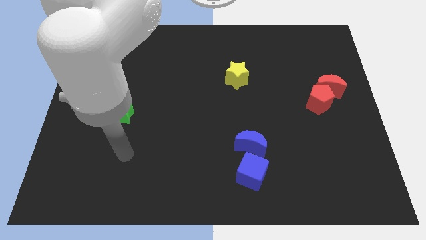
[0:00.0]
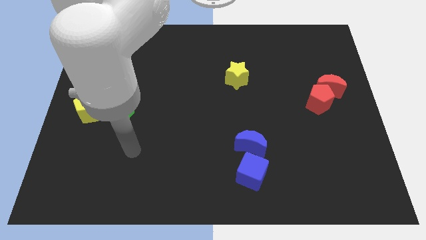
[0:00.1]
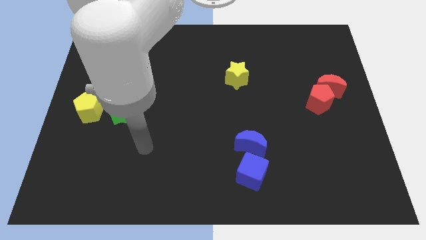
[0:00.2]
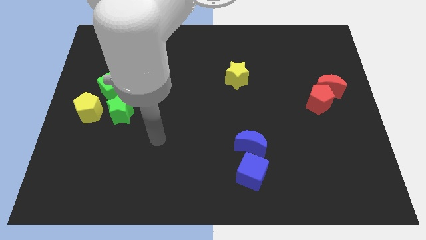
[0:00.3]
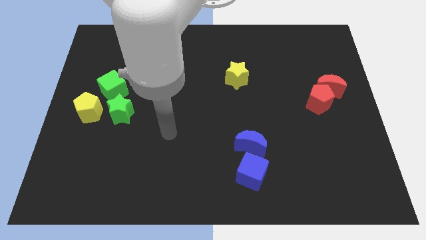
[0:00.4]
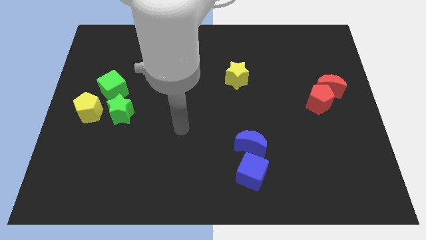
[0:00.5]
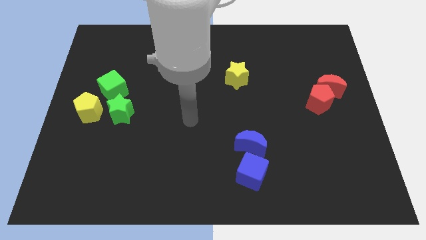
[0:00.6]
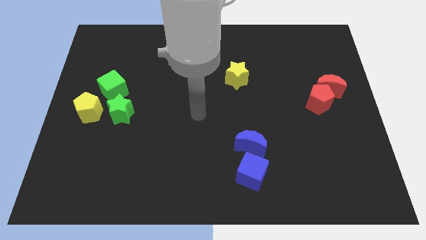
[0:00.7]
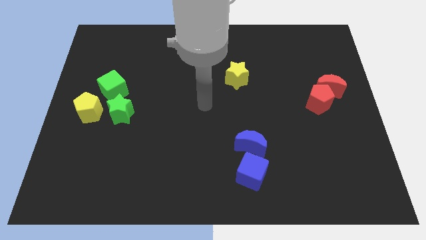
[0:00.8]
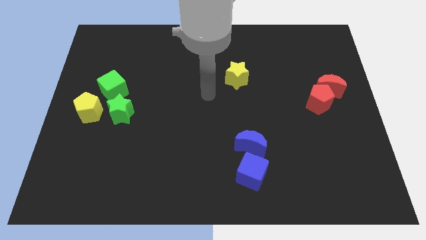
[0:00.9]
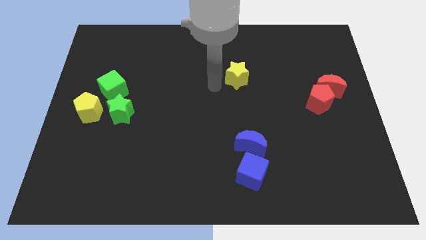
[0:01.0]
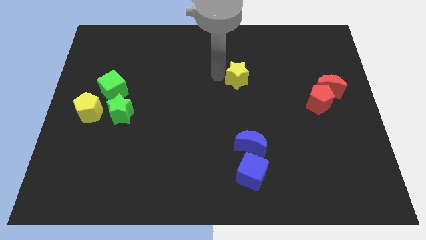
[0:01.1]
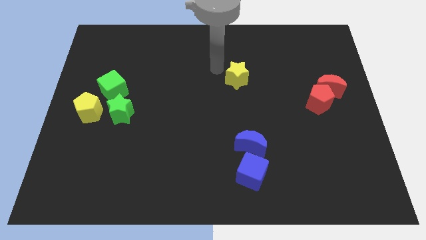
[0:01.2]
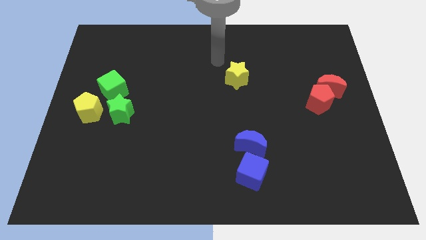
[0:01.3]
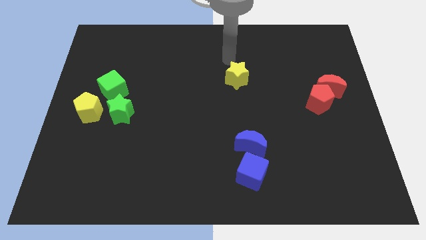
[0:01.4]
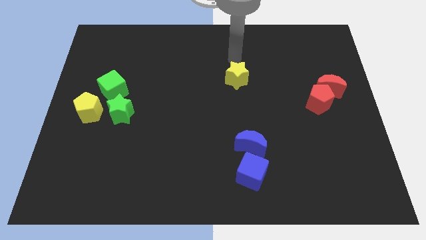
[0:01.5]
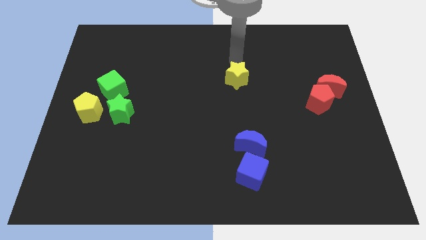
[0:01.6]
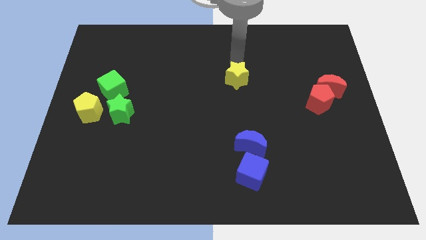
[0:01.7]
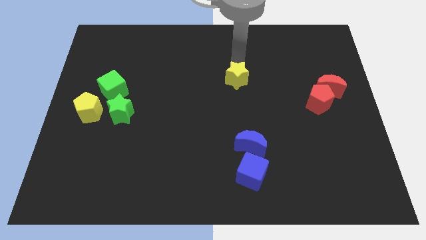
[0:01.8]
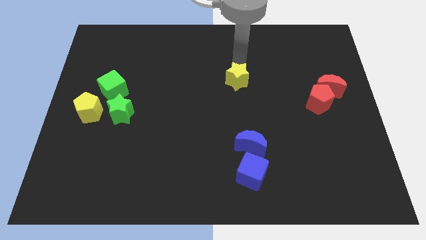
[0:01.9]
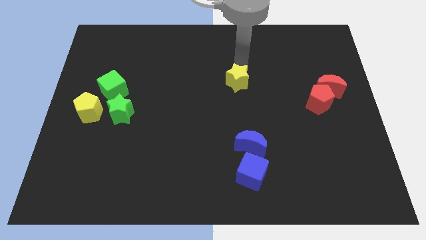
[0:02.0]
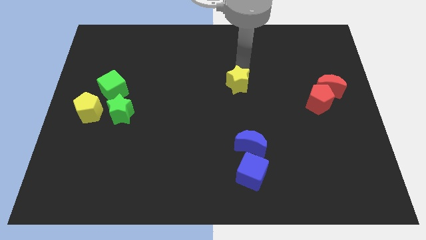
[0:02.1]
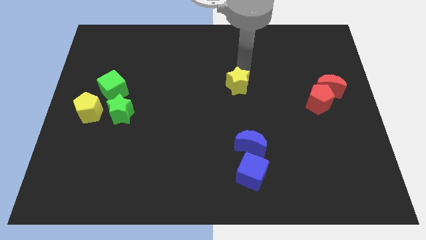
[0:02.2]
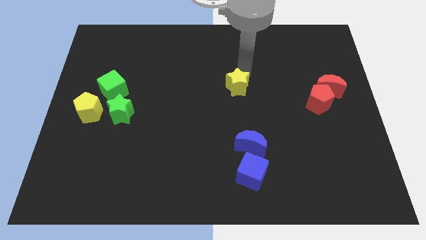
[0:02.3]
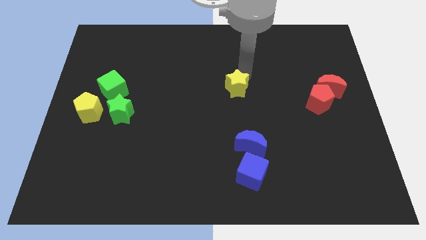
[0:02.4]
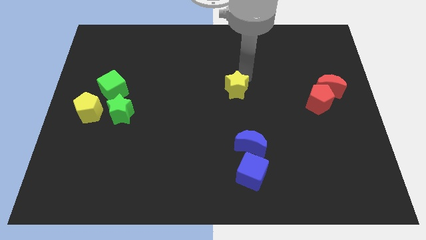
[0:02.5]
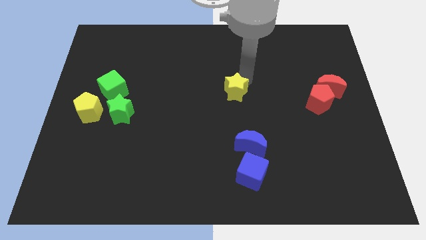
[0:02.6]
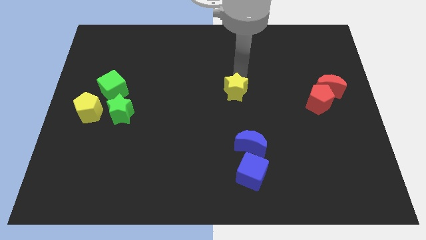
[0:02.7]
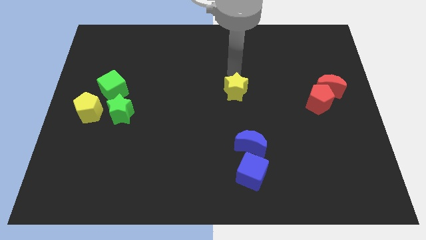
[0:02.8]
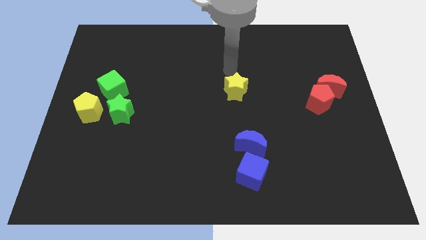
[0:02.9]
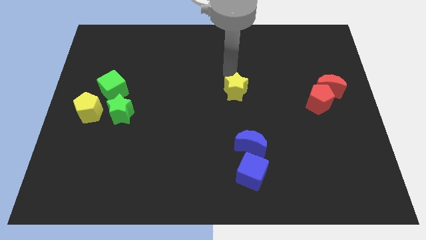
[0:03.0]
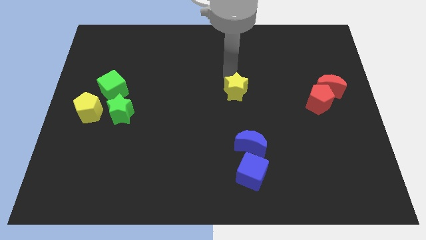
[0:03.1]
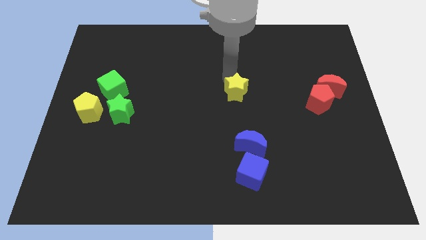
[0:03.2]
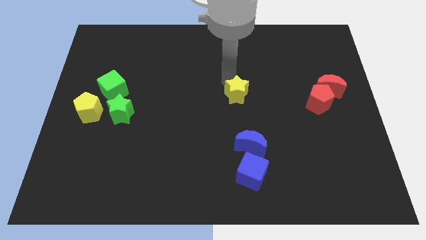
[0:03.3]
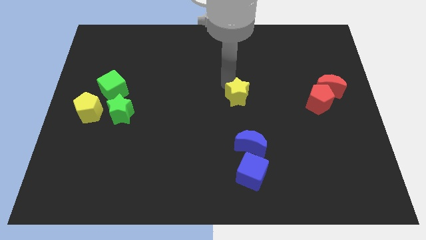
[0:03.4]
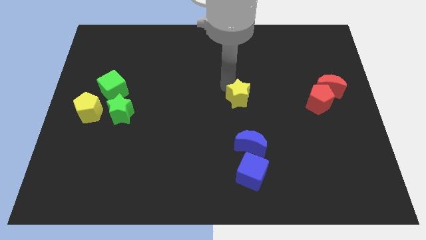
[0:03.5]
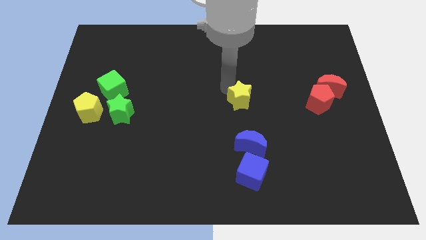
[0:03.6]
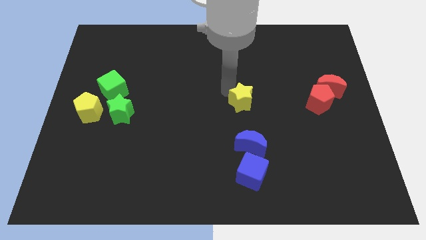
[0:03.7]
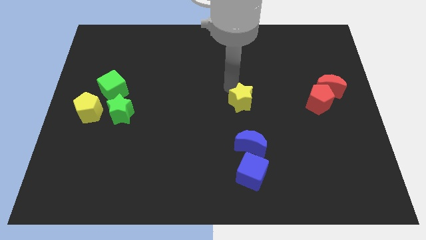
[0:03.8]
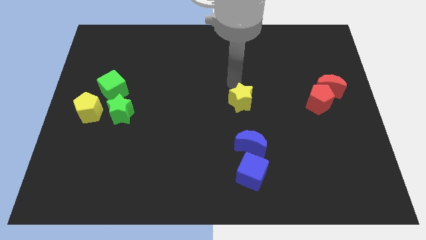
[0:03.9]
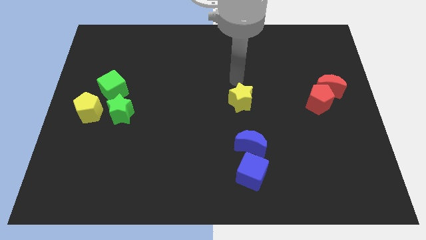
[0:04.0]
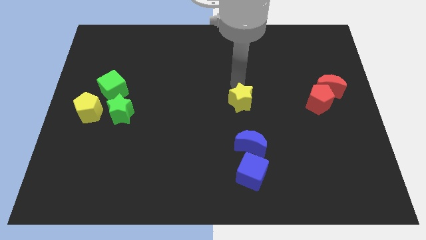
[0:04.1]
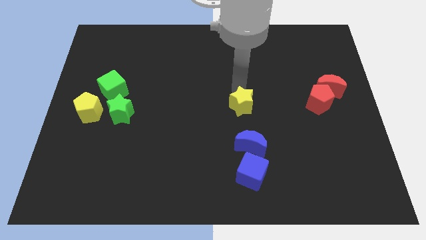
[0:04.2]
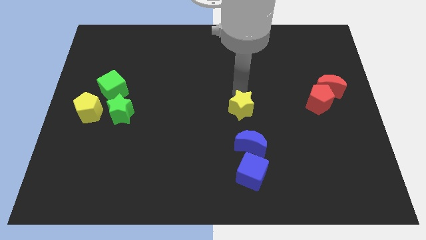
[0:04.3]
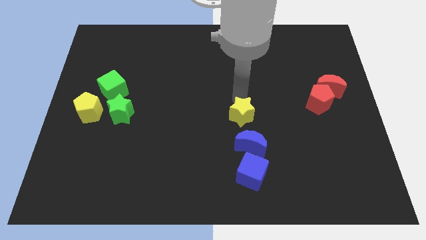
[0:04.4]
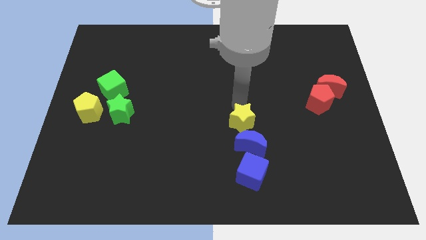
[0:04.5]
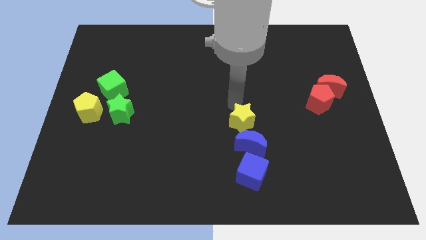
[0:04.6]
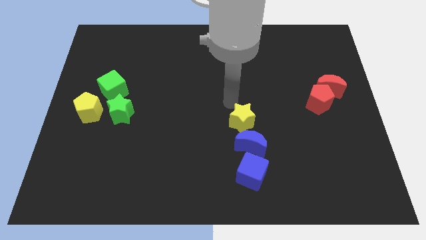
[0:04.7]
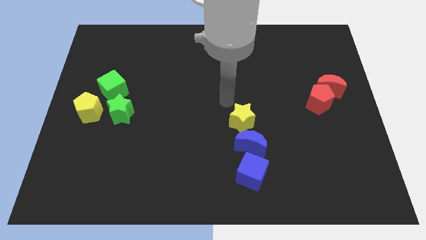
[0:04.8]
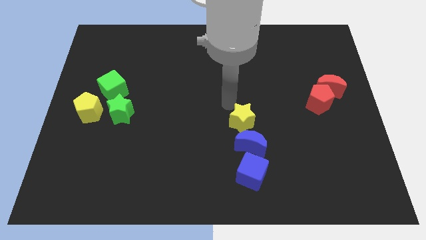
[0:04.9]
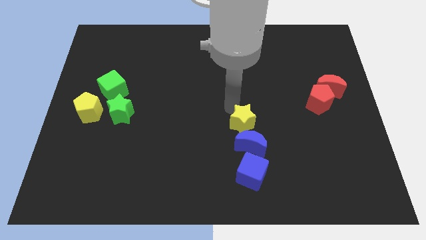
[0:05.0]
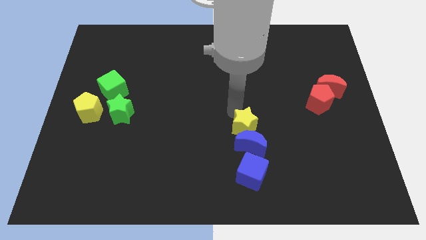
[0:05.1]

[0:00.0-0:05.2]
put the yellow star next to the blue moon

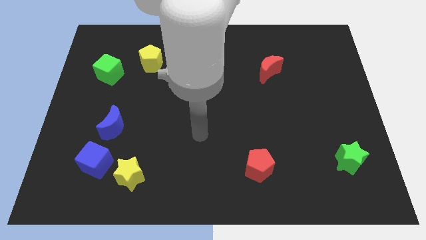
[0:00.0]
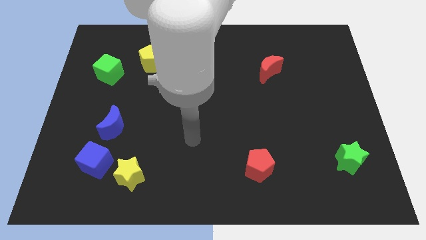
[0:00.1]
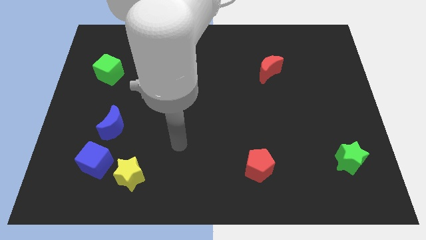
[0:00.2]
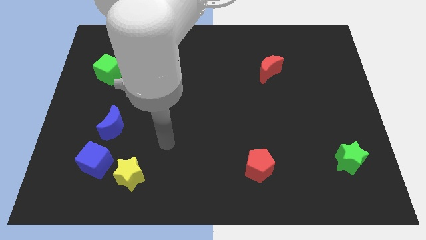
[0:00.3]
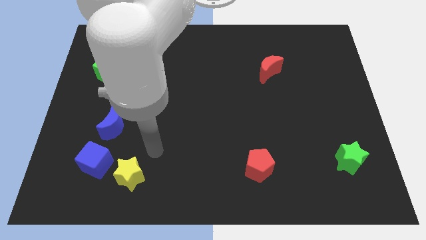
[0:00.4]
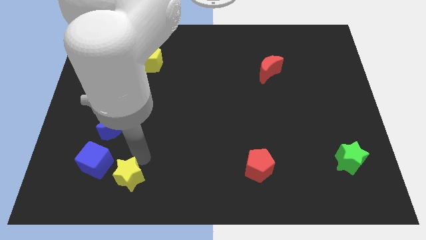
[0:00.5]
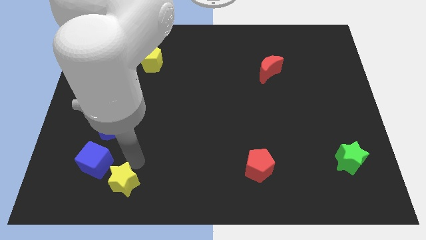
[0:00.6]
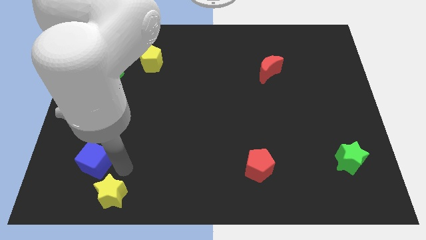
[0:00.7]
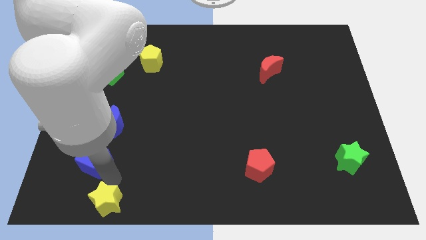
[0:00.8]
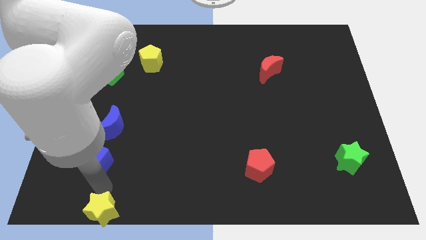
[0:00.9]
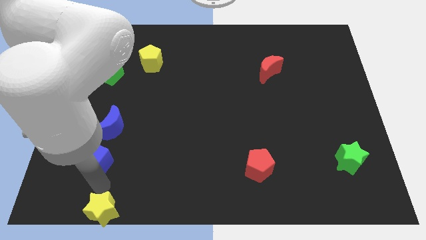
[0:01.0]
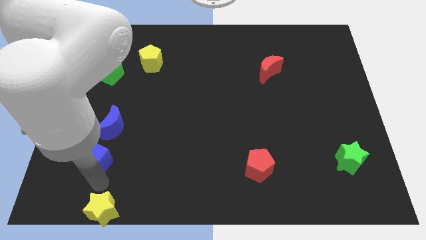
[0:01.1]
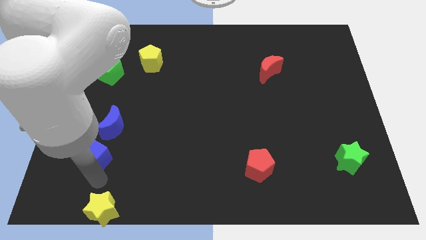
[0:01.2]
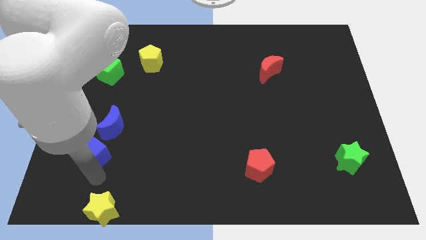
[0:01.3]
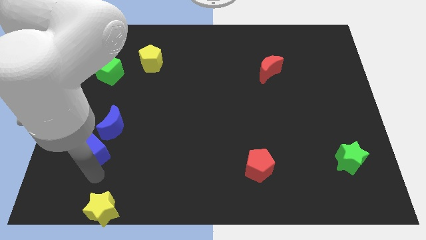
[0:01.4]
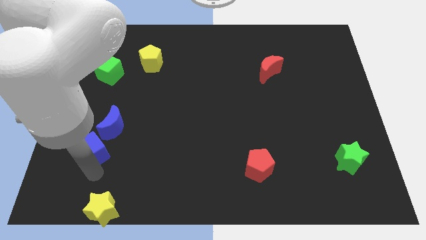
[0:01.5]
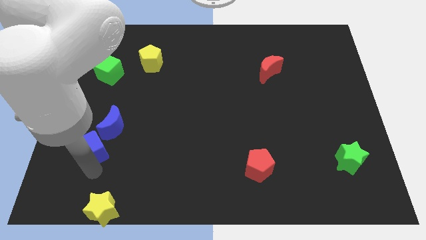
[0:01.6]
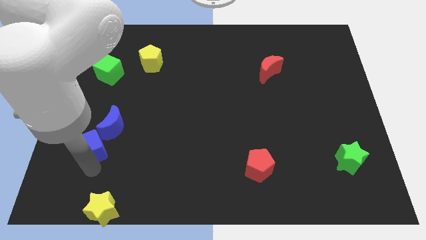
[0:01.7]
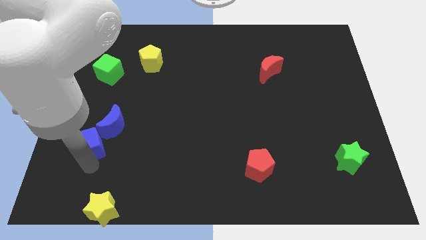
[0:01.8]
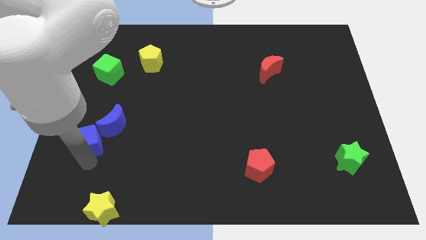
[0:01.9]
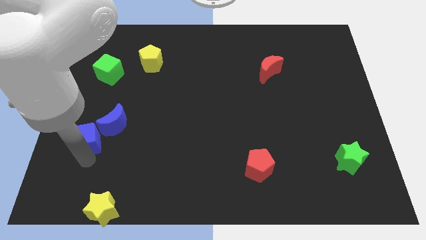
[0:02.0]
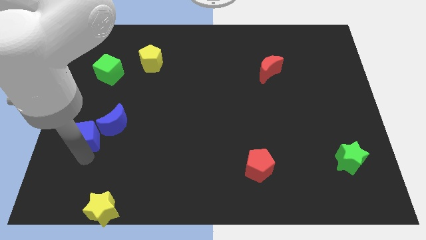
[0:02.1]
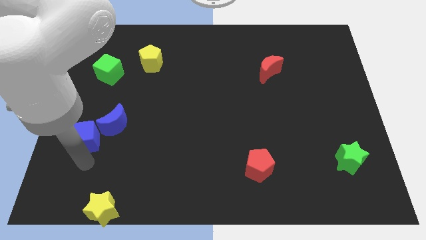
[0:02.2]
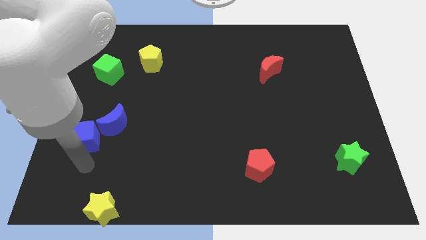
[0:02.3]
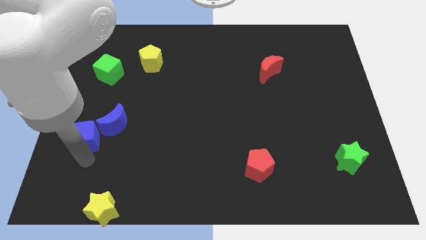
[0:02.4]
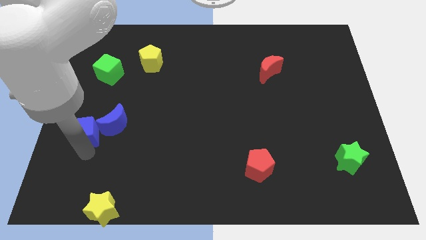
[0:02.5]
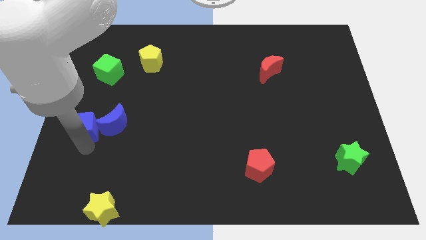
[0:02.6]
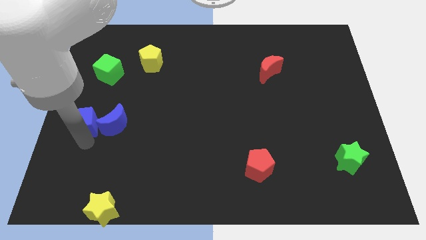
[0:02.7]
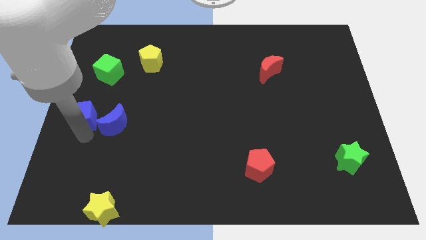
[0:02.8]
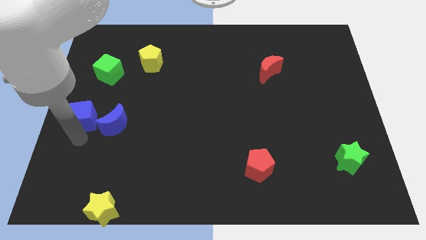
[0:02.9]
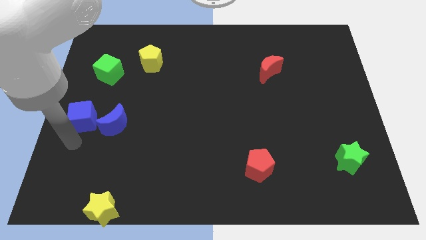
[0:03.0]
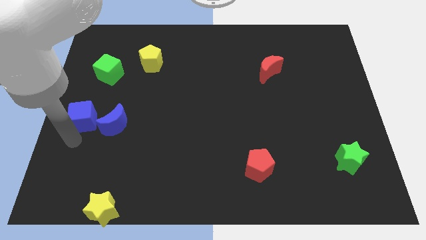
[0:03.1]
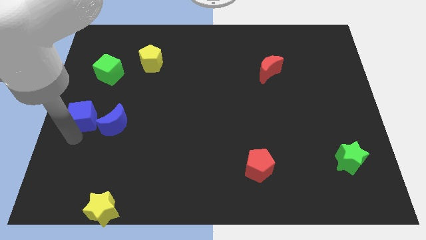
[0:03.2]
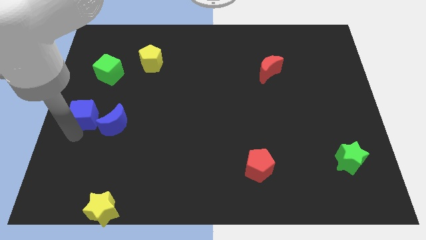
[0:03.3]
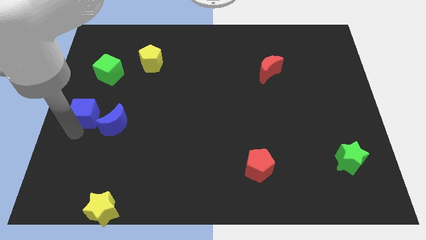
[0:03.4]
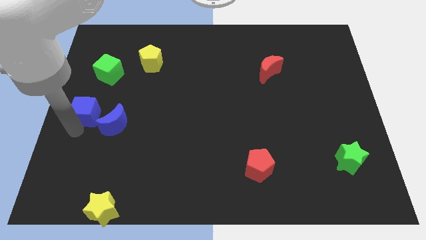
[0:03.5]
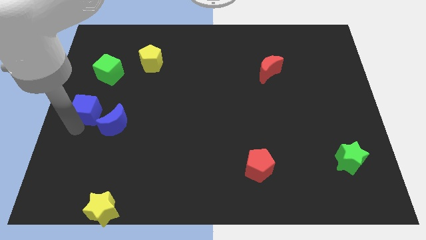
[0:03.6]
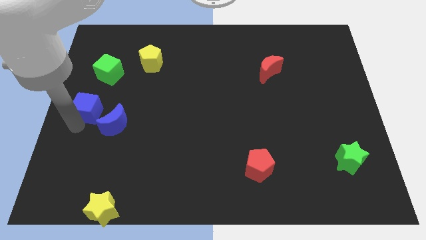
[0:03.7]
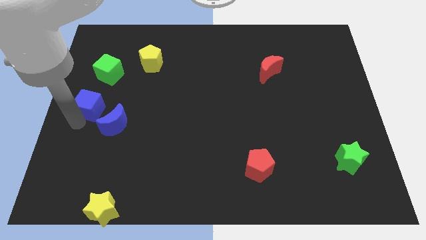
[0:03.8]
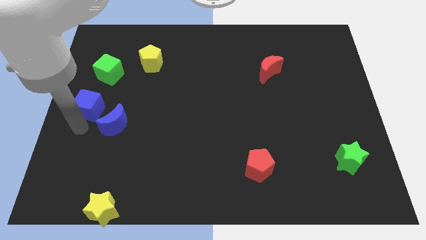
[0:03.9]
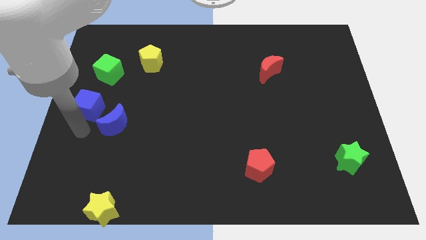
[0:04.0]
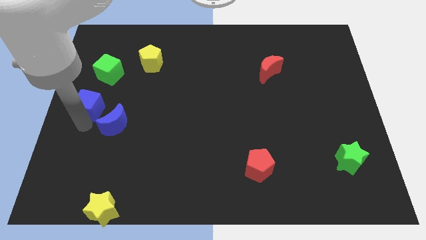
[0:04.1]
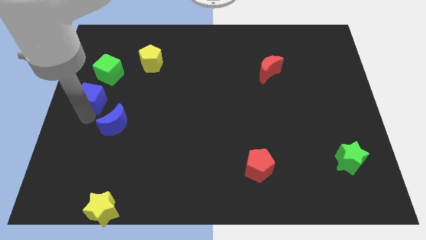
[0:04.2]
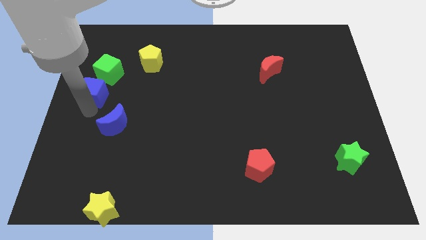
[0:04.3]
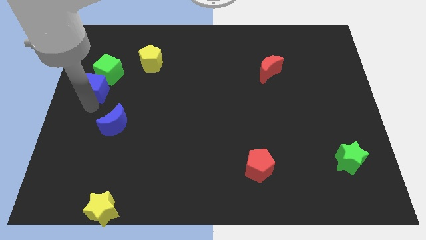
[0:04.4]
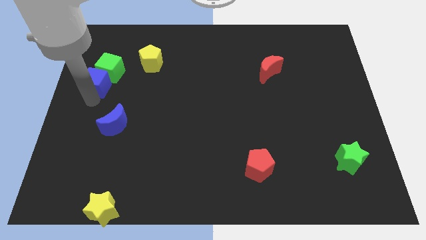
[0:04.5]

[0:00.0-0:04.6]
put the blue cube to the green cube
